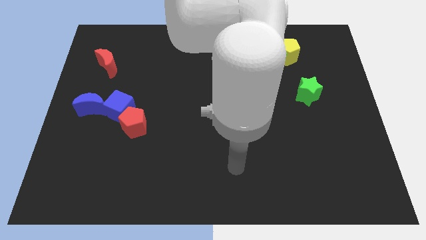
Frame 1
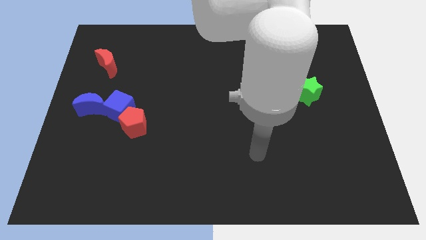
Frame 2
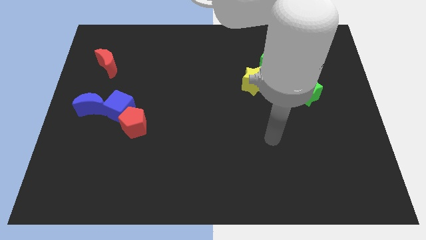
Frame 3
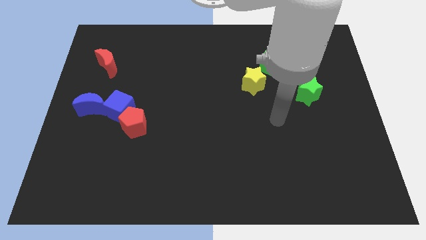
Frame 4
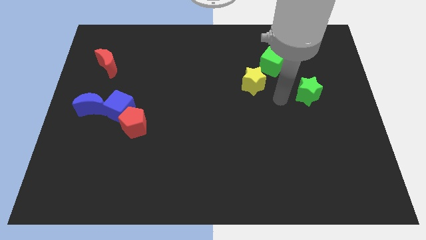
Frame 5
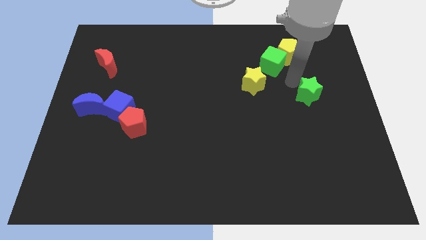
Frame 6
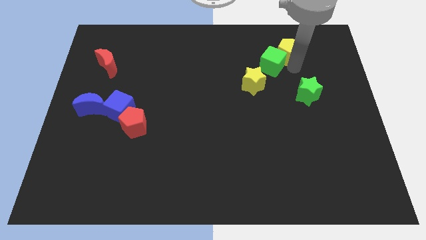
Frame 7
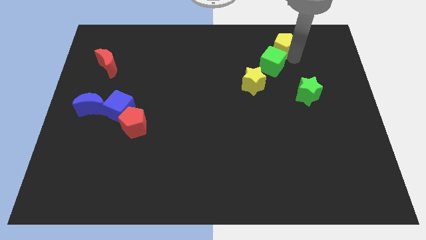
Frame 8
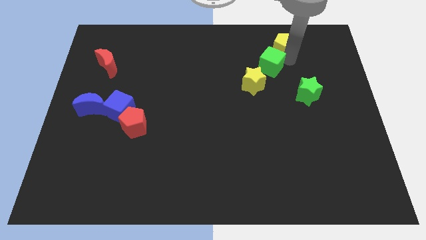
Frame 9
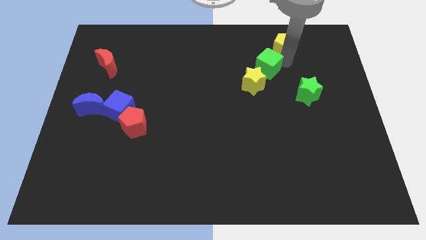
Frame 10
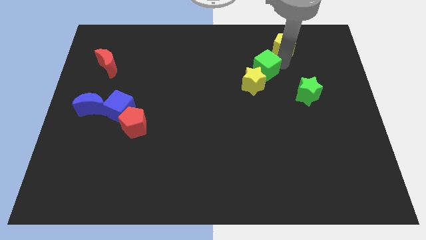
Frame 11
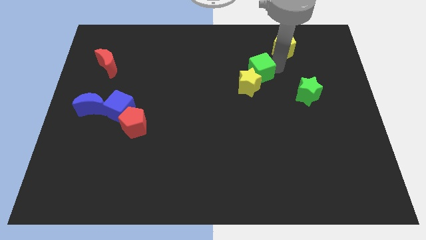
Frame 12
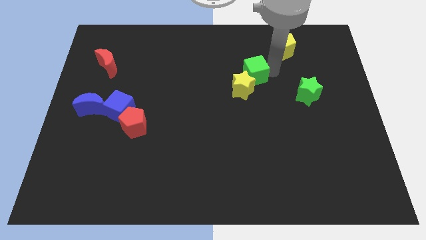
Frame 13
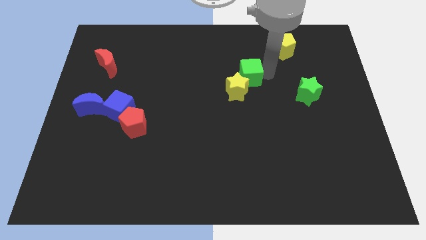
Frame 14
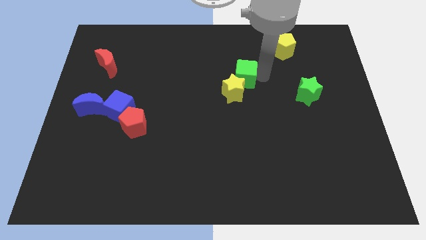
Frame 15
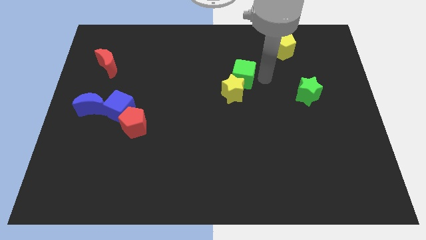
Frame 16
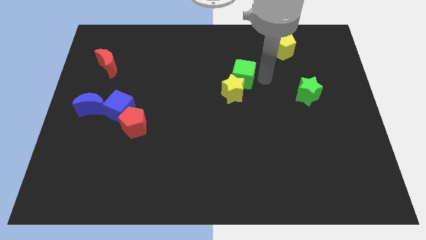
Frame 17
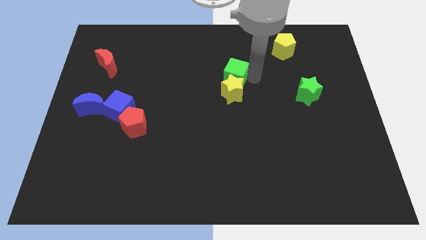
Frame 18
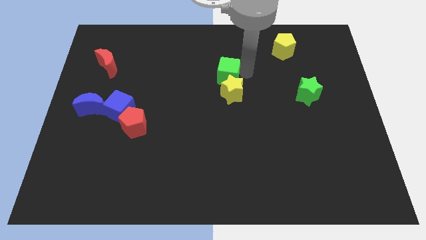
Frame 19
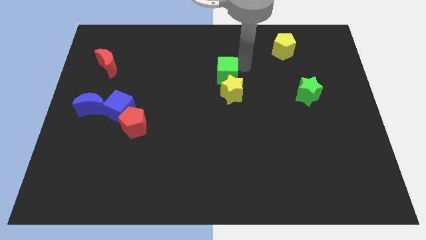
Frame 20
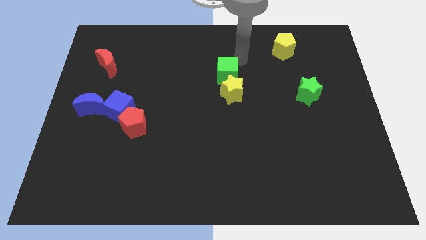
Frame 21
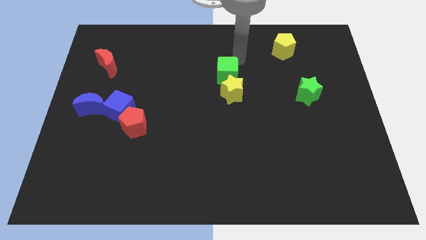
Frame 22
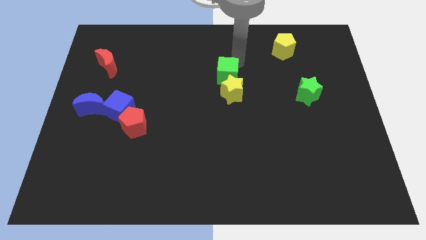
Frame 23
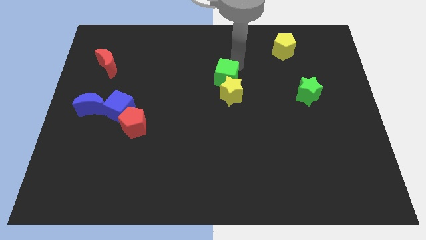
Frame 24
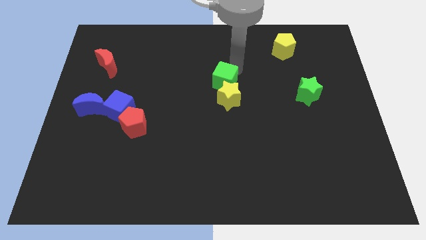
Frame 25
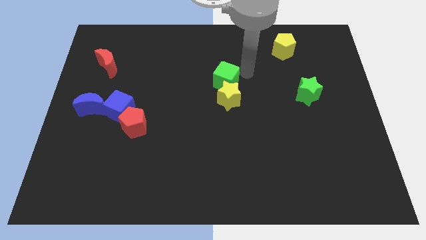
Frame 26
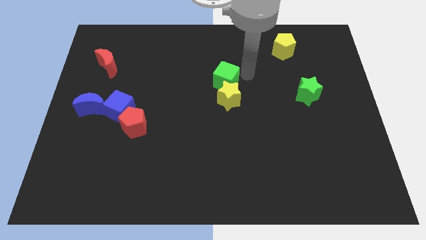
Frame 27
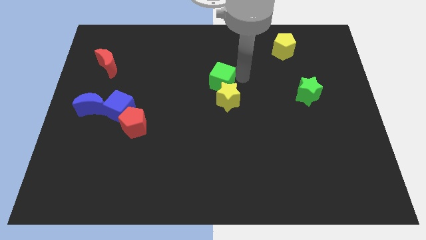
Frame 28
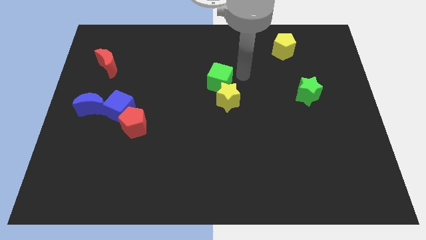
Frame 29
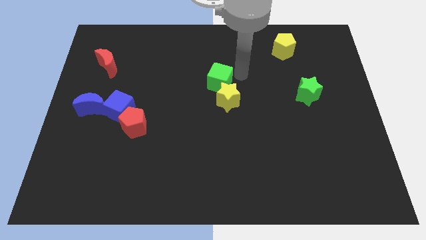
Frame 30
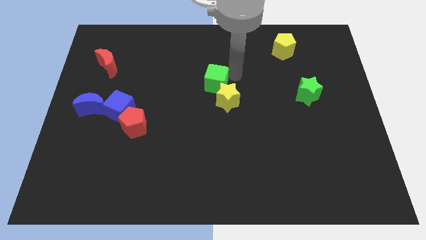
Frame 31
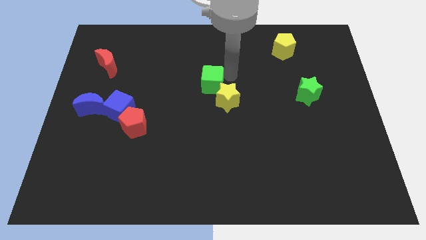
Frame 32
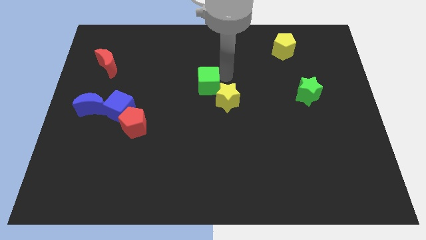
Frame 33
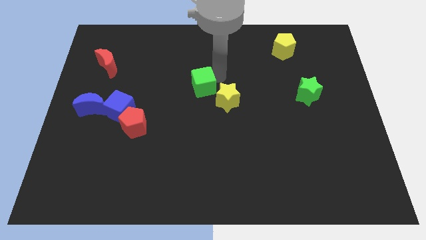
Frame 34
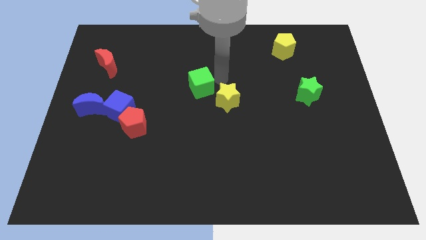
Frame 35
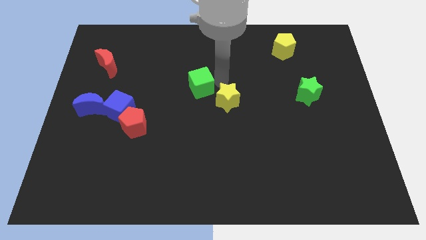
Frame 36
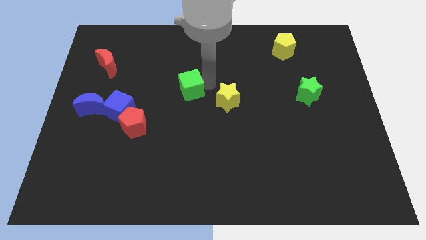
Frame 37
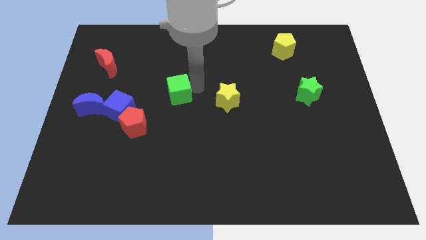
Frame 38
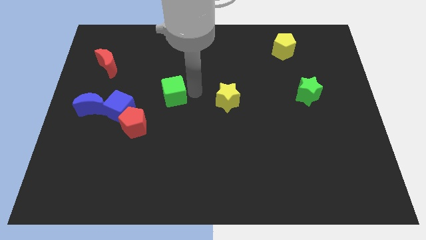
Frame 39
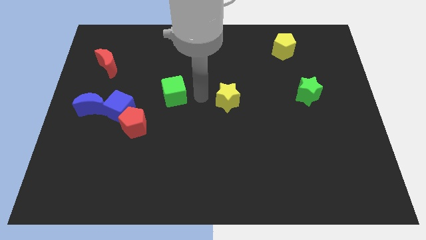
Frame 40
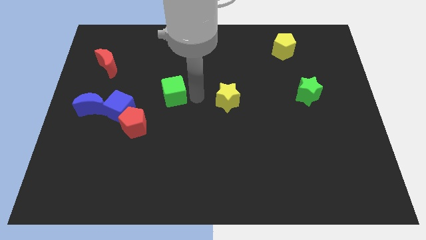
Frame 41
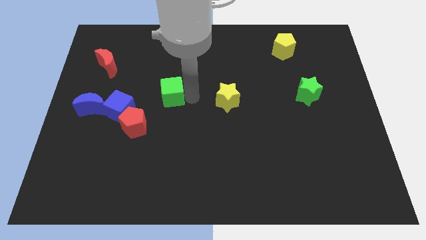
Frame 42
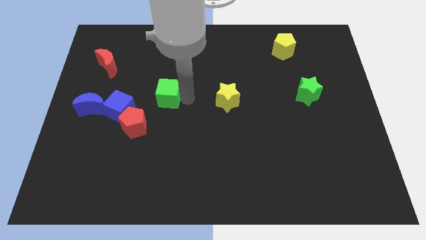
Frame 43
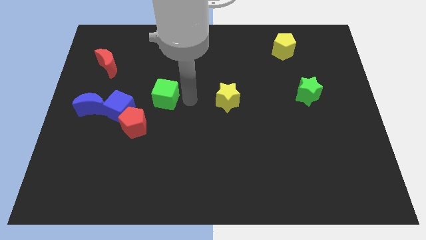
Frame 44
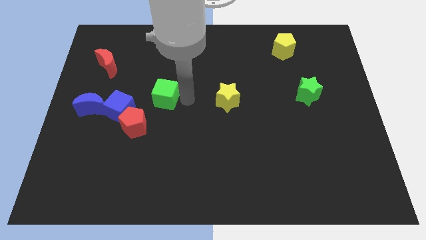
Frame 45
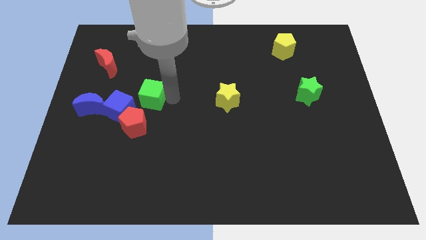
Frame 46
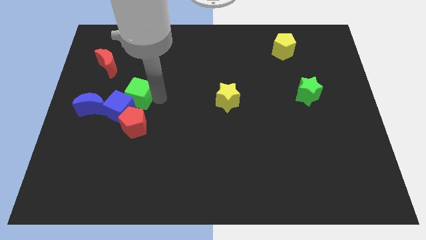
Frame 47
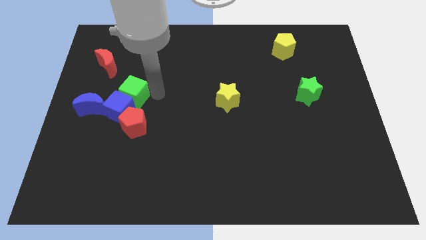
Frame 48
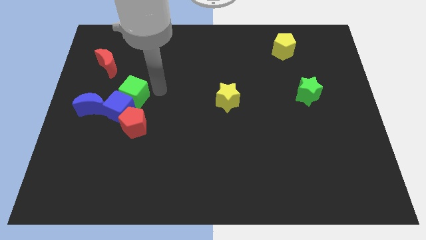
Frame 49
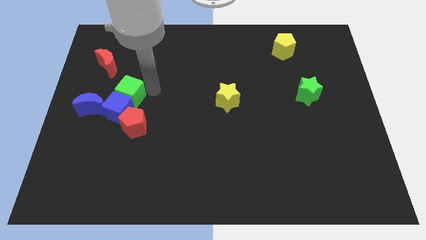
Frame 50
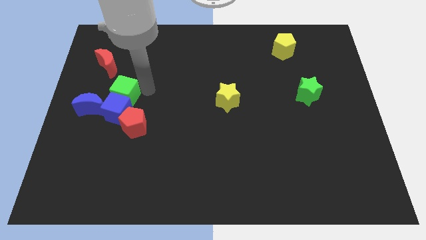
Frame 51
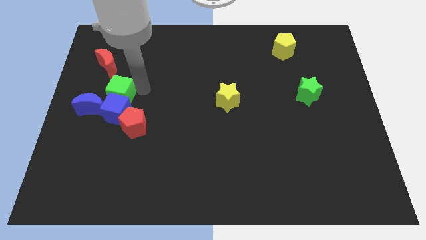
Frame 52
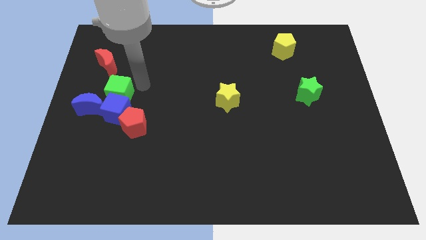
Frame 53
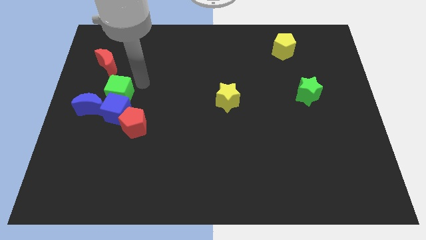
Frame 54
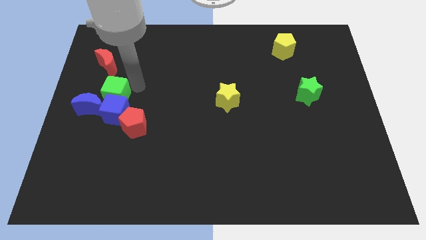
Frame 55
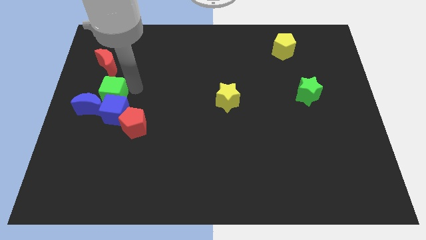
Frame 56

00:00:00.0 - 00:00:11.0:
push the green cube close to the blue moon

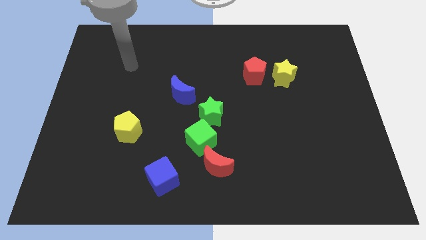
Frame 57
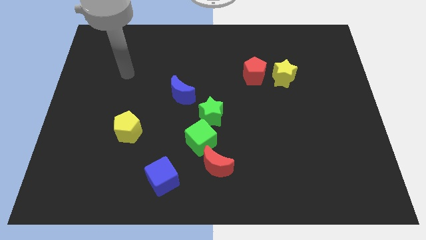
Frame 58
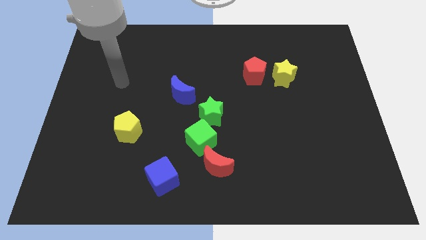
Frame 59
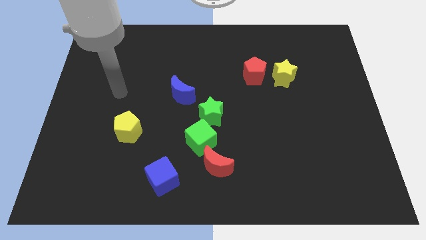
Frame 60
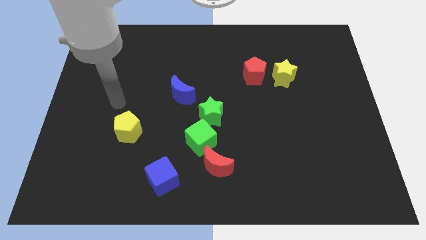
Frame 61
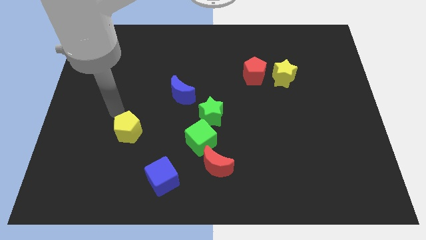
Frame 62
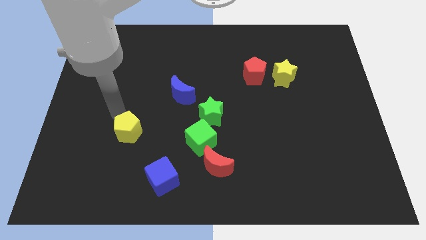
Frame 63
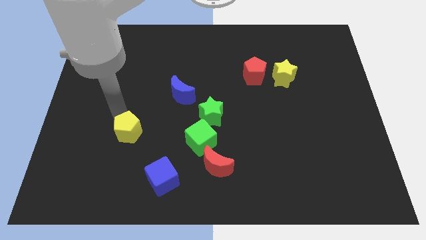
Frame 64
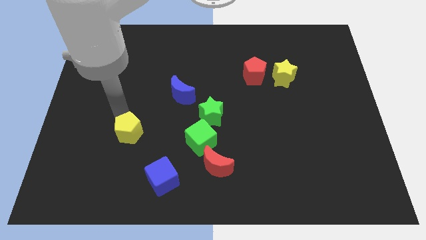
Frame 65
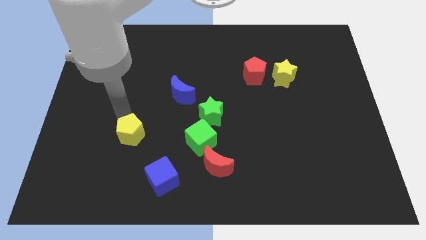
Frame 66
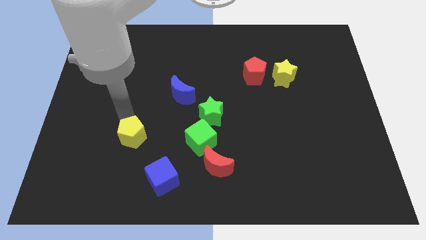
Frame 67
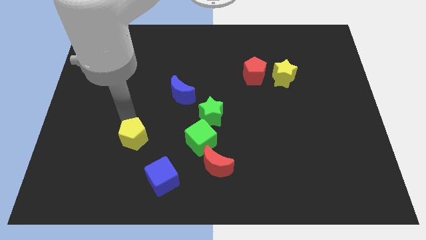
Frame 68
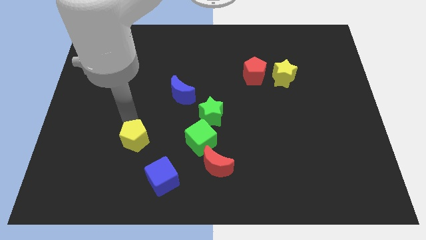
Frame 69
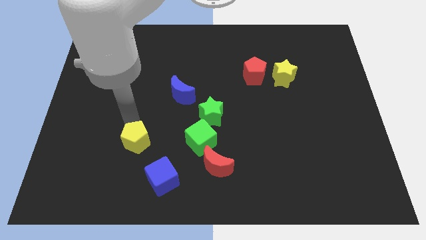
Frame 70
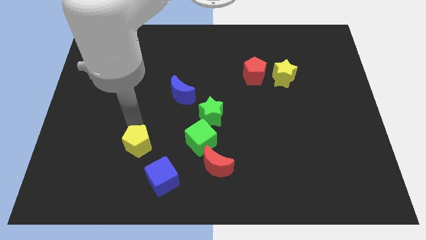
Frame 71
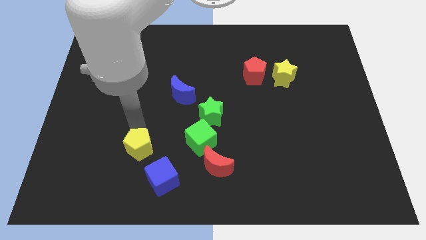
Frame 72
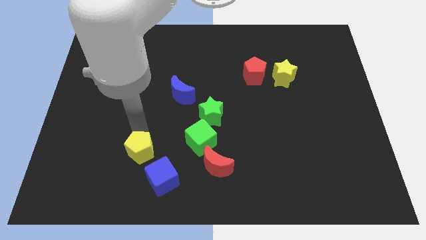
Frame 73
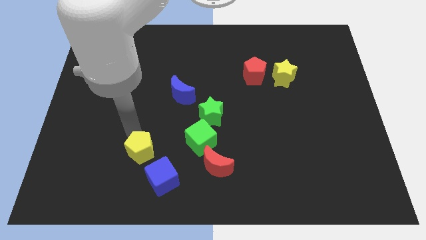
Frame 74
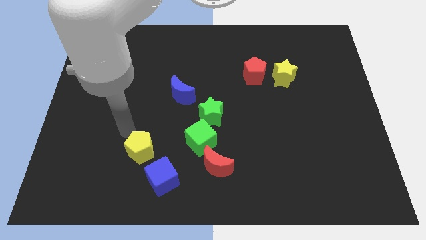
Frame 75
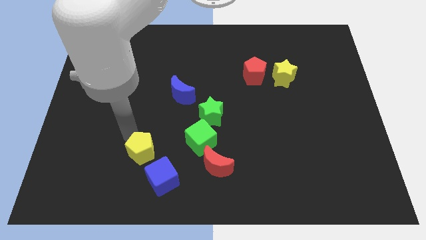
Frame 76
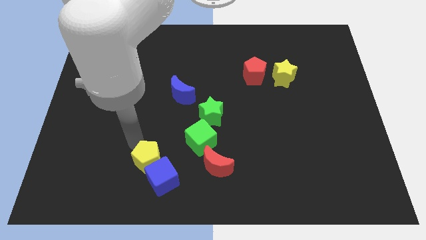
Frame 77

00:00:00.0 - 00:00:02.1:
move the yellow pentagon close to the blue cube

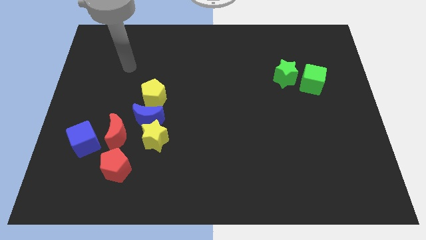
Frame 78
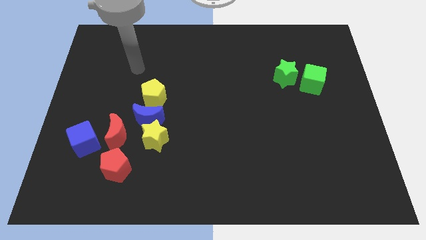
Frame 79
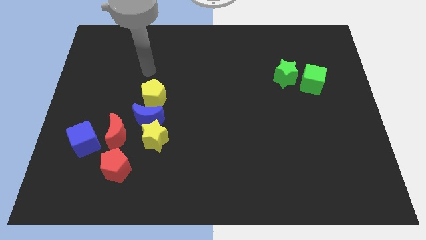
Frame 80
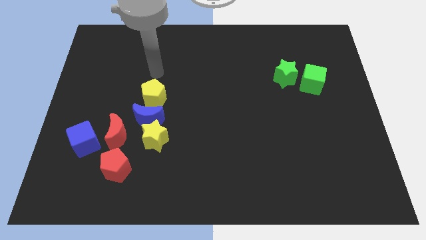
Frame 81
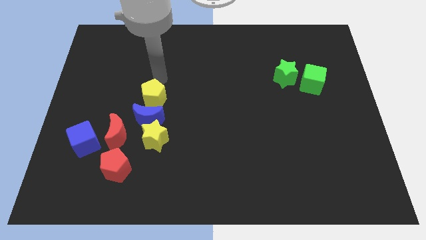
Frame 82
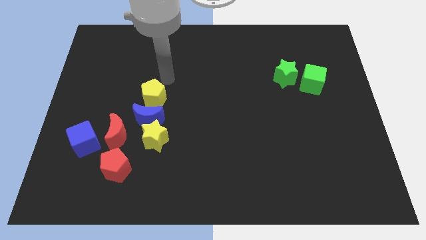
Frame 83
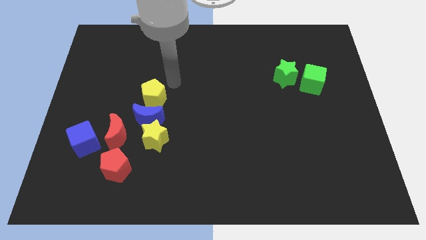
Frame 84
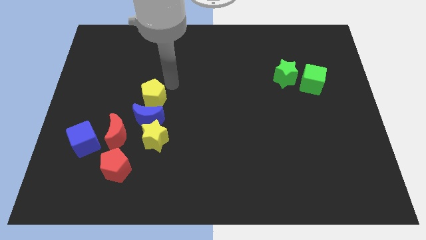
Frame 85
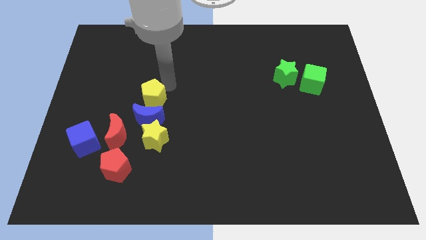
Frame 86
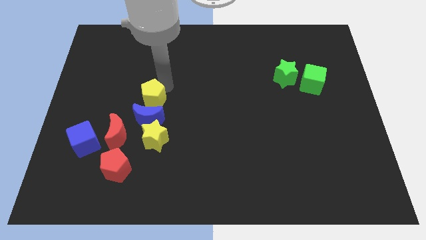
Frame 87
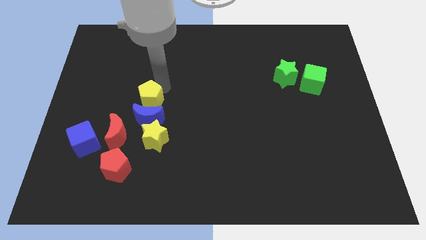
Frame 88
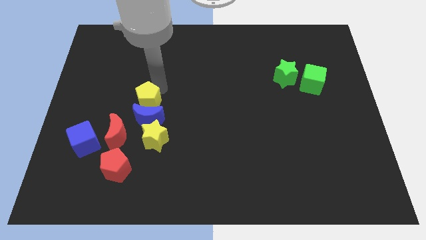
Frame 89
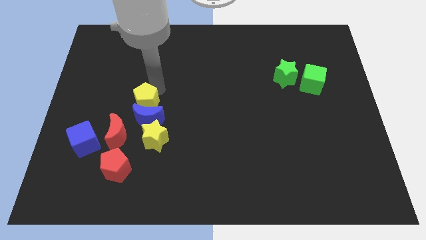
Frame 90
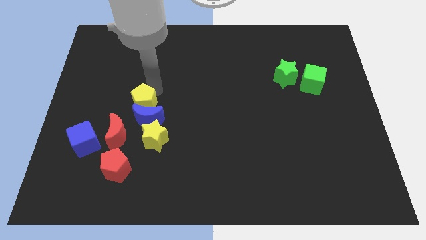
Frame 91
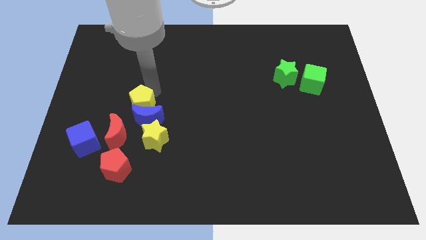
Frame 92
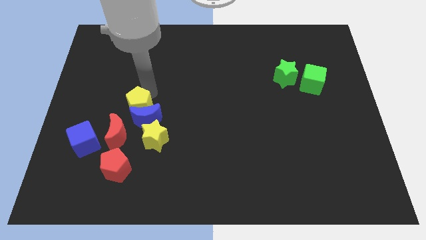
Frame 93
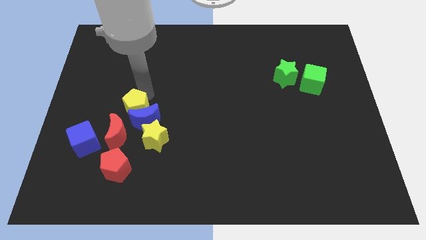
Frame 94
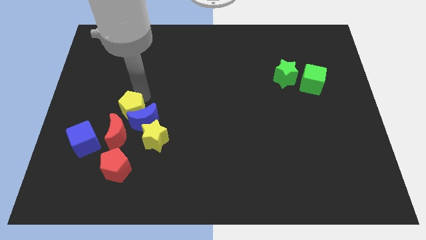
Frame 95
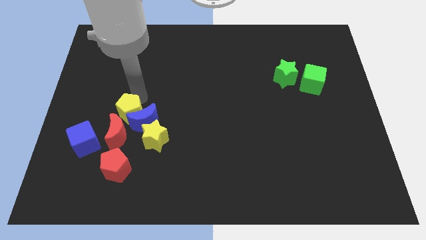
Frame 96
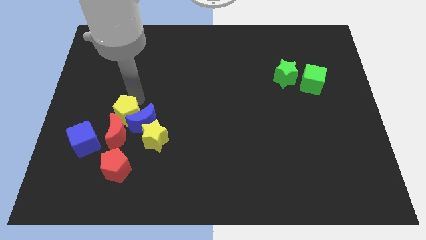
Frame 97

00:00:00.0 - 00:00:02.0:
move the yellow pentagon to the red moon
